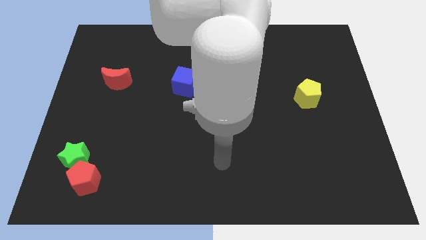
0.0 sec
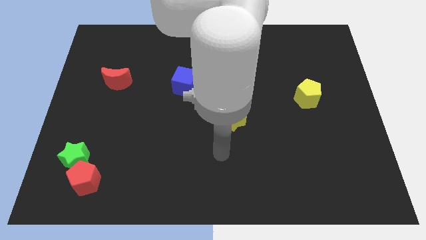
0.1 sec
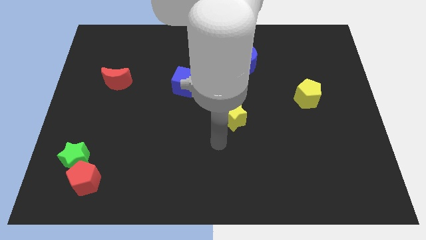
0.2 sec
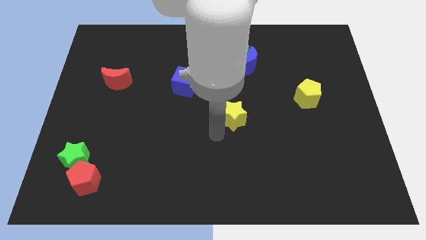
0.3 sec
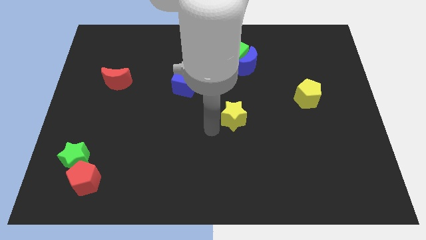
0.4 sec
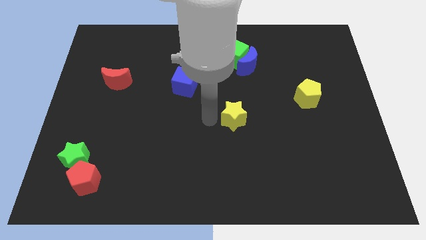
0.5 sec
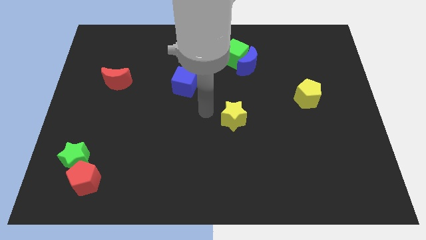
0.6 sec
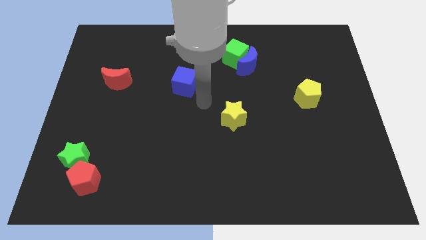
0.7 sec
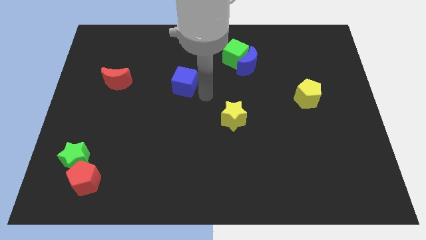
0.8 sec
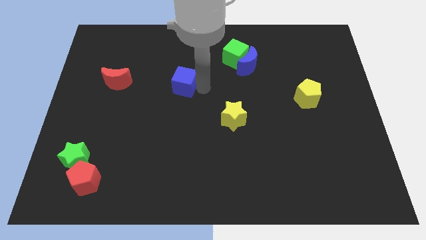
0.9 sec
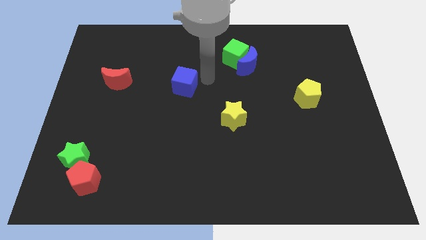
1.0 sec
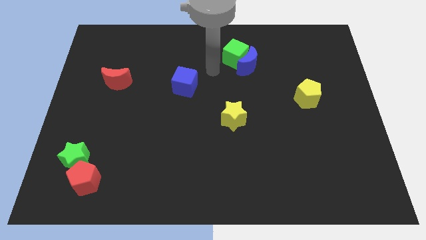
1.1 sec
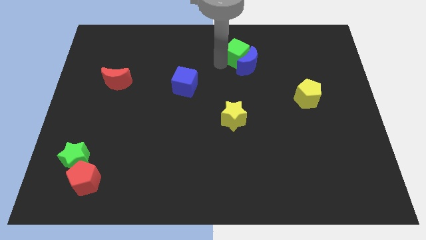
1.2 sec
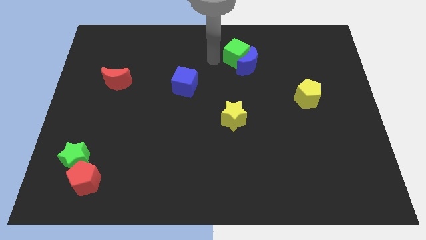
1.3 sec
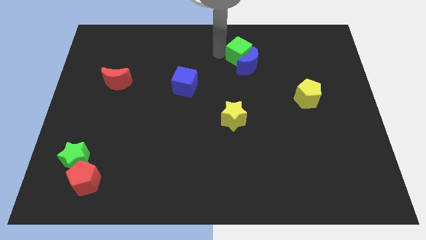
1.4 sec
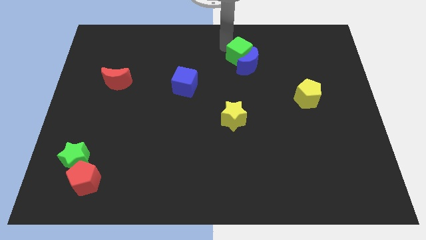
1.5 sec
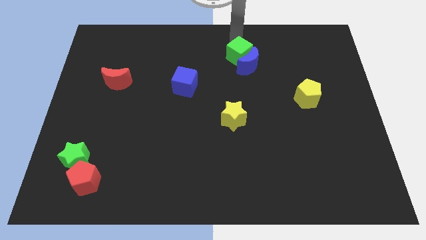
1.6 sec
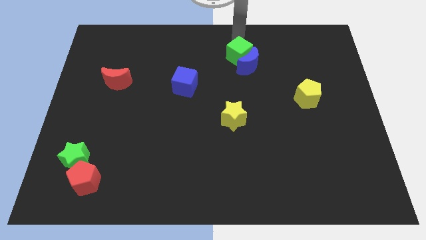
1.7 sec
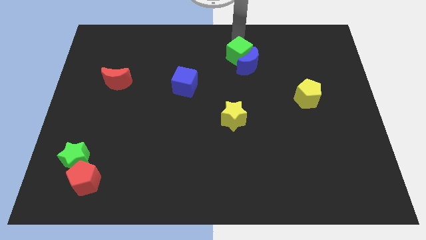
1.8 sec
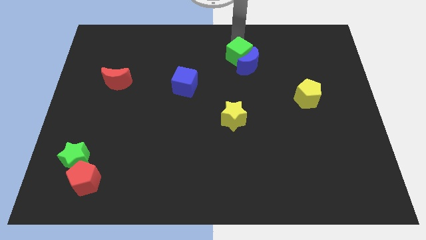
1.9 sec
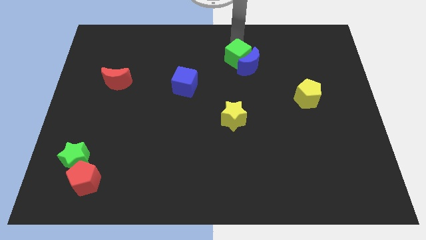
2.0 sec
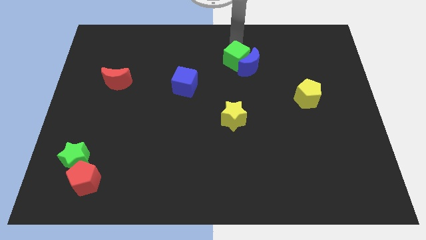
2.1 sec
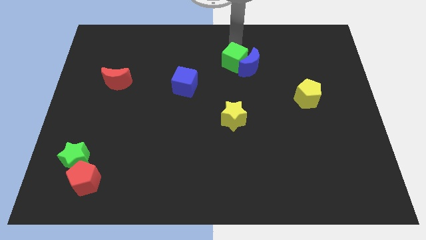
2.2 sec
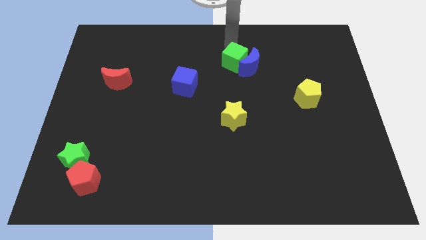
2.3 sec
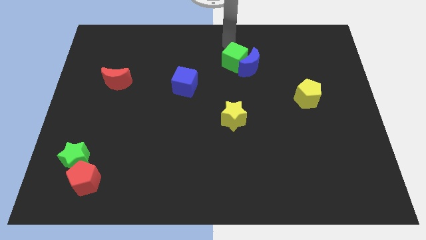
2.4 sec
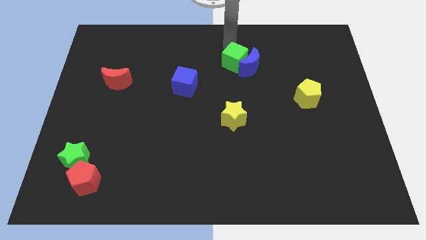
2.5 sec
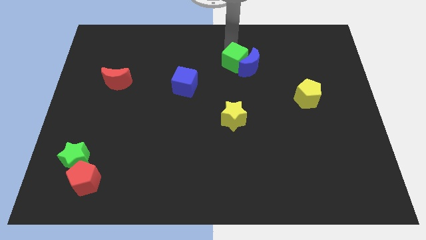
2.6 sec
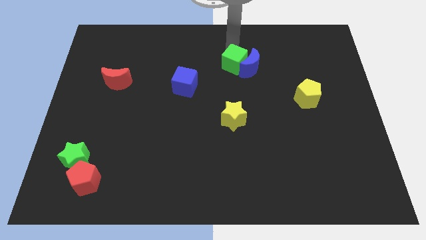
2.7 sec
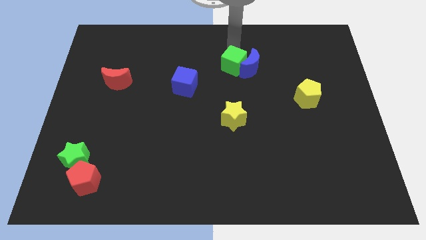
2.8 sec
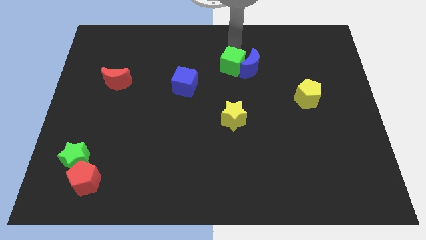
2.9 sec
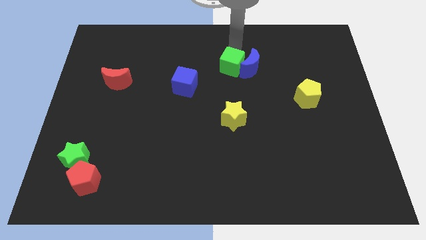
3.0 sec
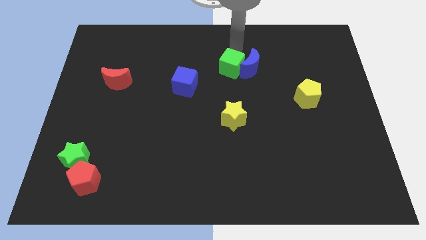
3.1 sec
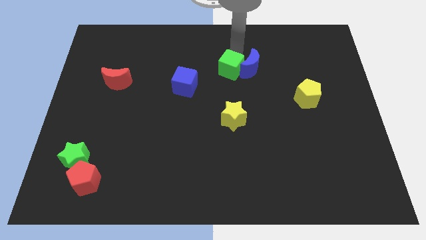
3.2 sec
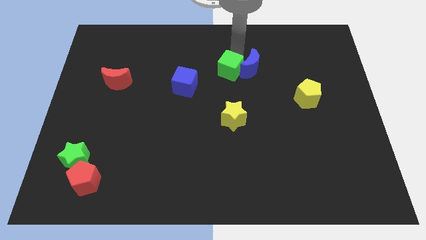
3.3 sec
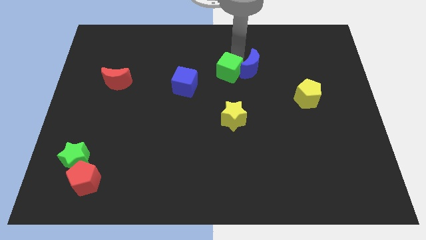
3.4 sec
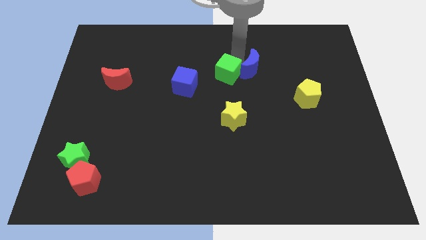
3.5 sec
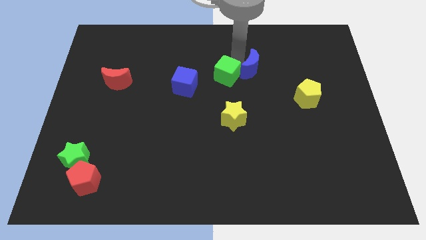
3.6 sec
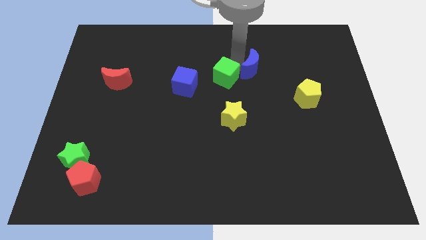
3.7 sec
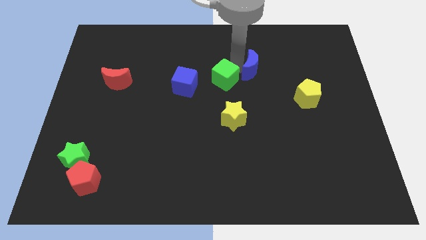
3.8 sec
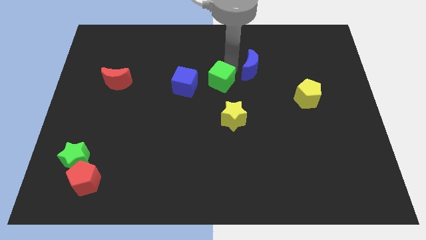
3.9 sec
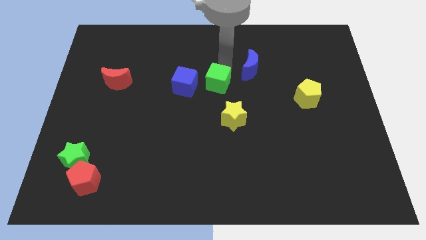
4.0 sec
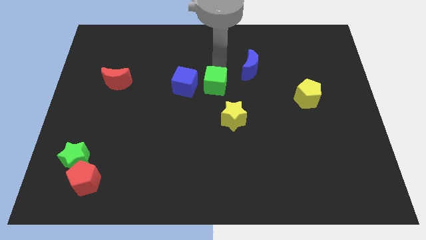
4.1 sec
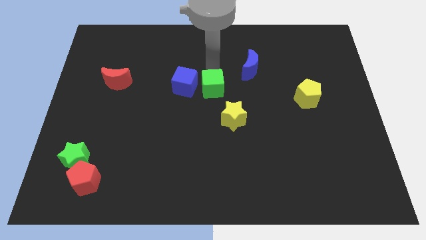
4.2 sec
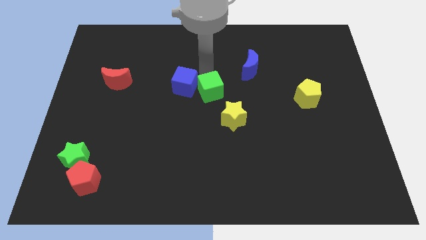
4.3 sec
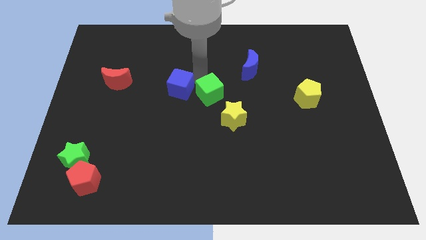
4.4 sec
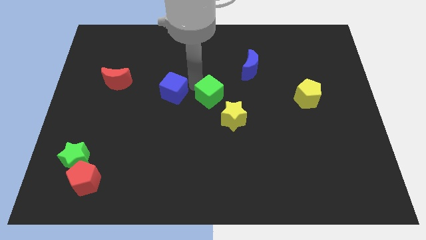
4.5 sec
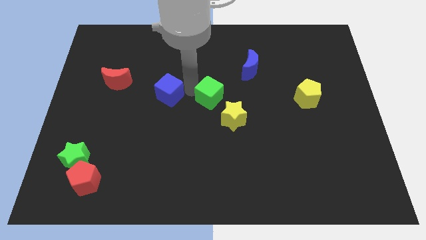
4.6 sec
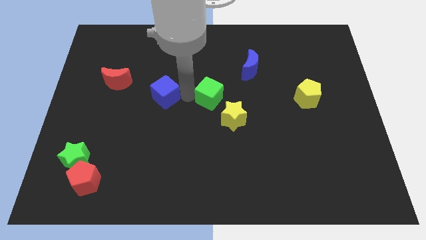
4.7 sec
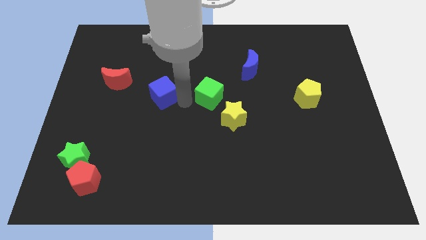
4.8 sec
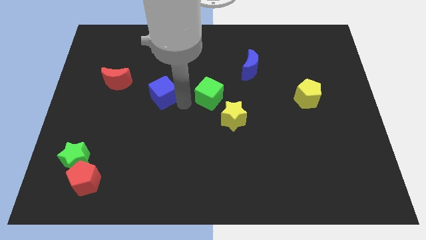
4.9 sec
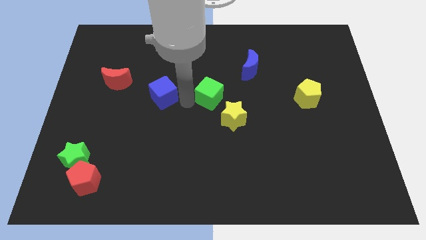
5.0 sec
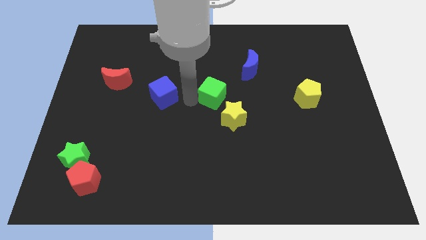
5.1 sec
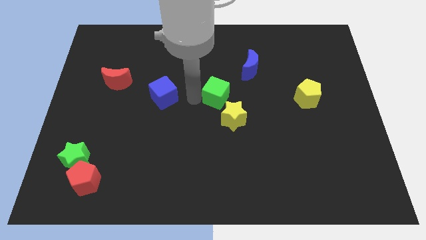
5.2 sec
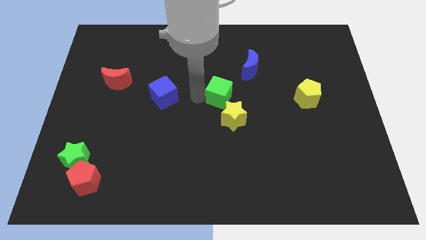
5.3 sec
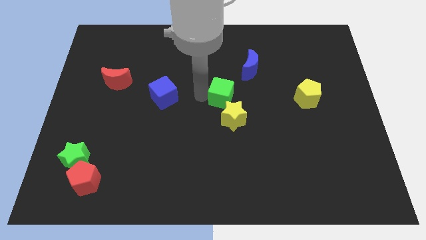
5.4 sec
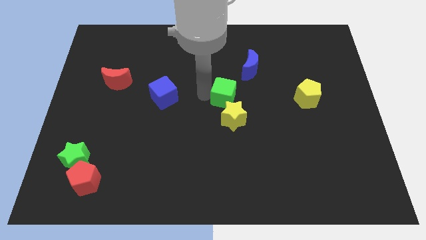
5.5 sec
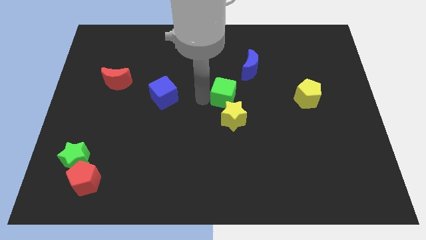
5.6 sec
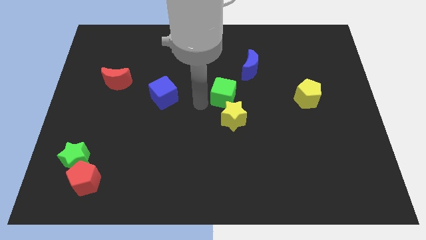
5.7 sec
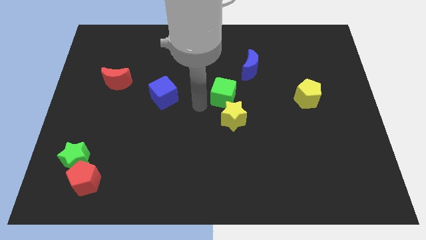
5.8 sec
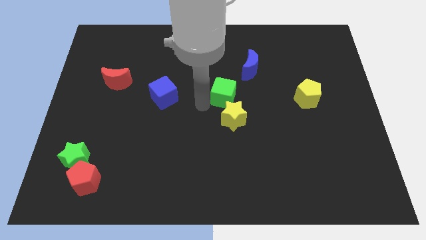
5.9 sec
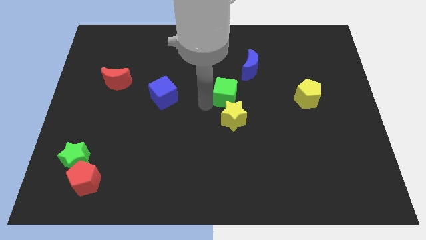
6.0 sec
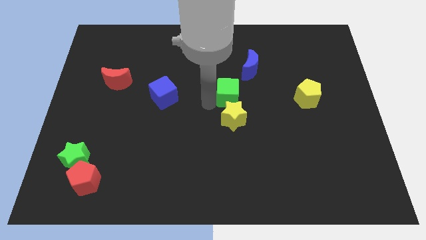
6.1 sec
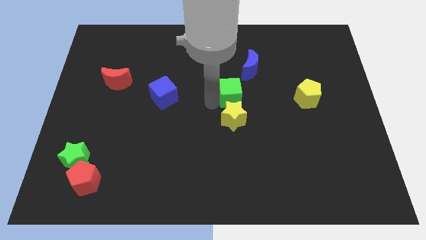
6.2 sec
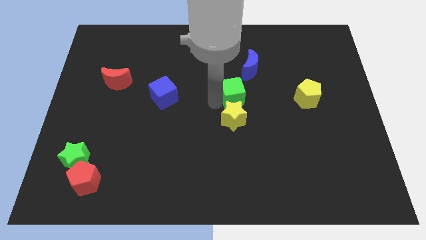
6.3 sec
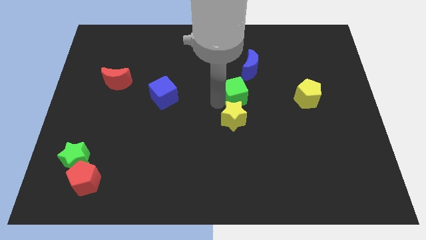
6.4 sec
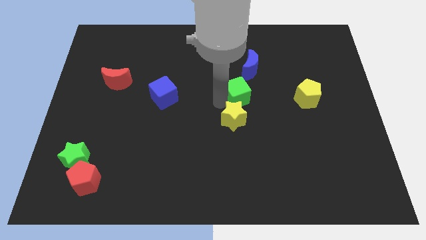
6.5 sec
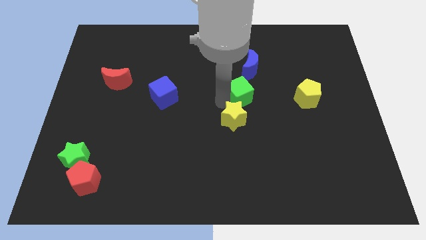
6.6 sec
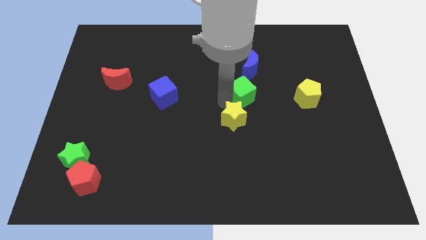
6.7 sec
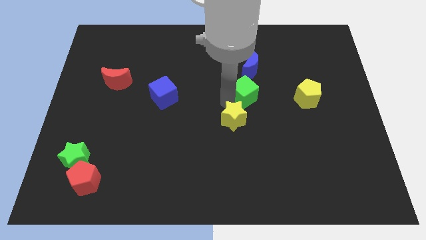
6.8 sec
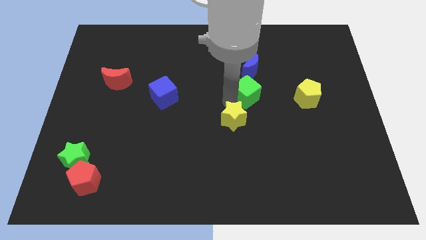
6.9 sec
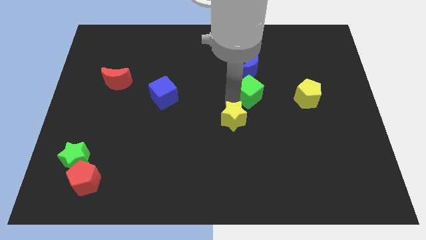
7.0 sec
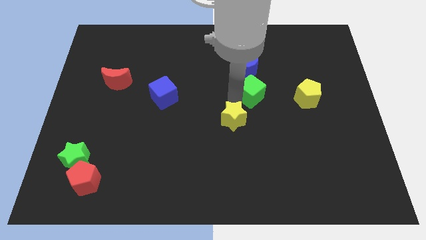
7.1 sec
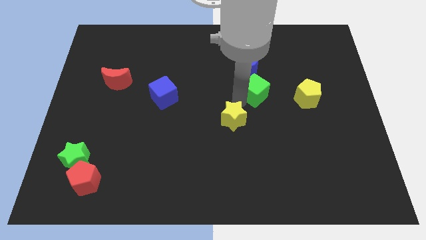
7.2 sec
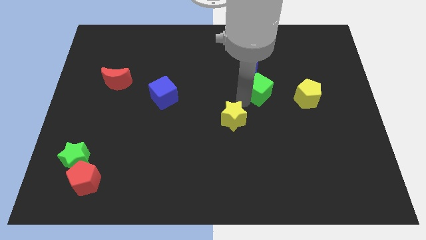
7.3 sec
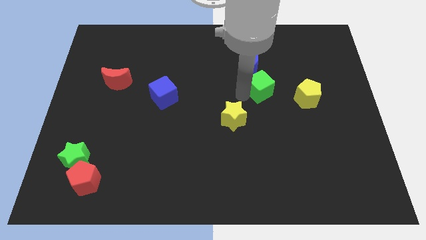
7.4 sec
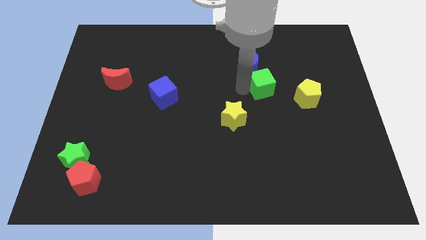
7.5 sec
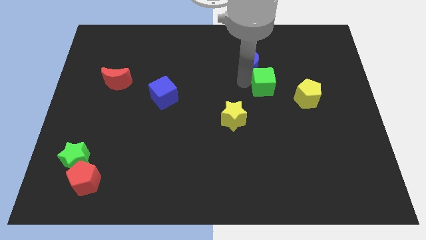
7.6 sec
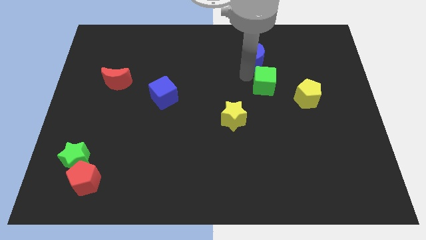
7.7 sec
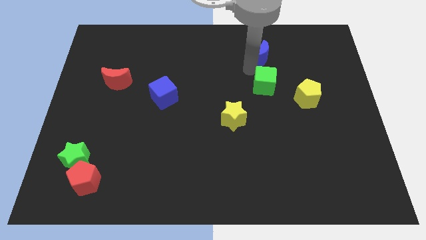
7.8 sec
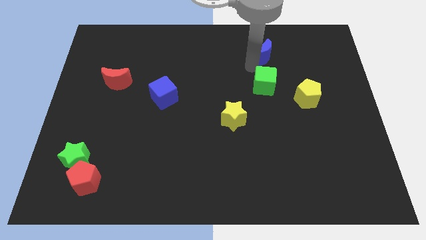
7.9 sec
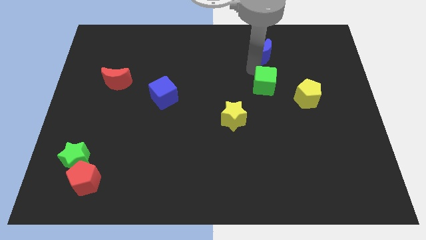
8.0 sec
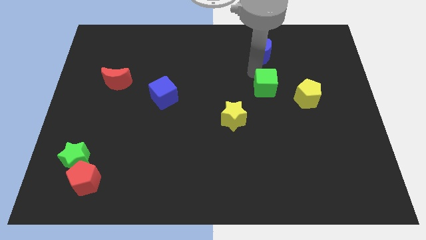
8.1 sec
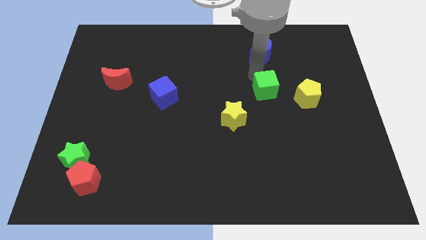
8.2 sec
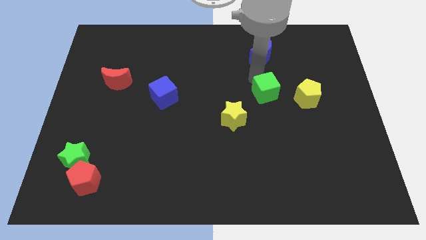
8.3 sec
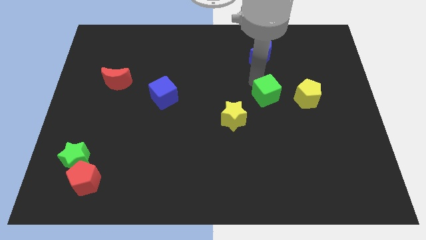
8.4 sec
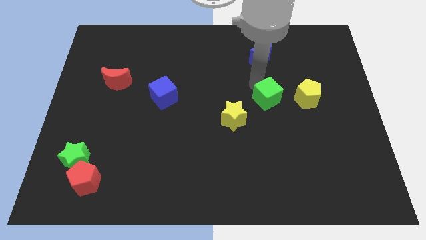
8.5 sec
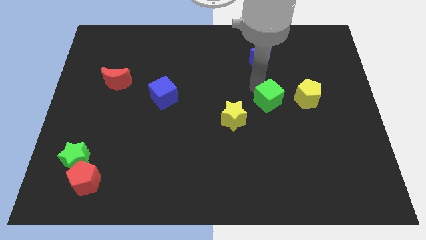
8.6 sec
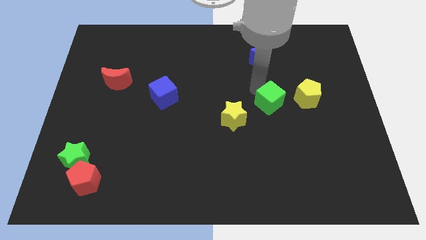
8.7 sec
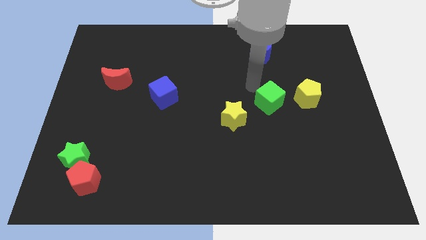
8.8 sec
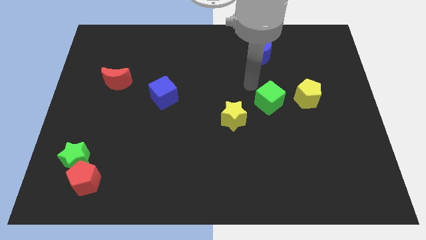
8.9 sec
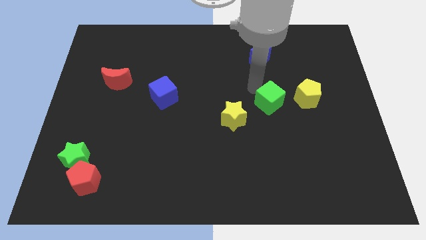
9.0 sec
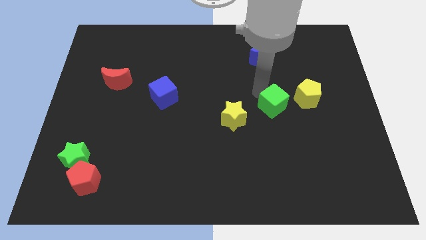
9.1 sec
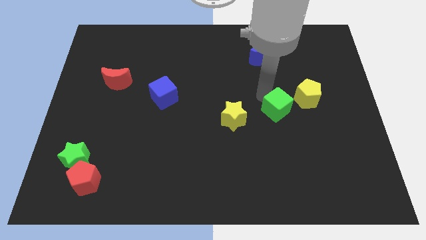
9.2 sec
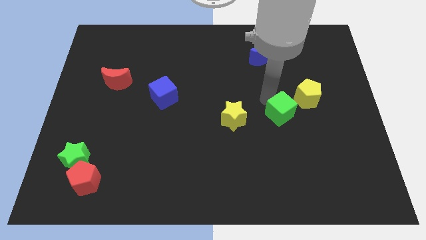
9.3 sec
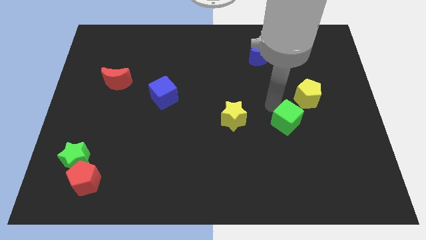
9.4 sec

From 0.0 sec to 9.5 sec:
slide the green cube down and then right
